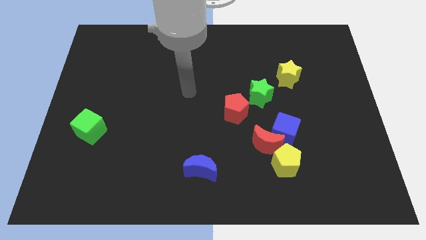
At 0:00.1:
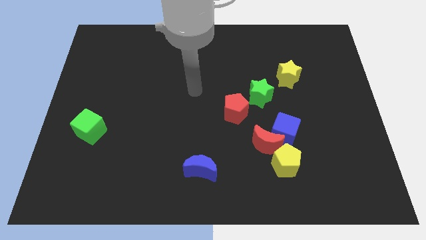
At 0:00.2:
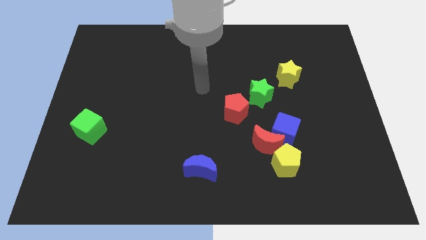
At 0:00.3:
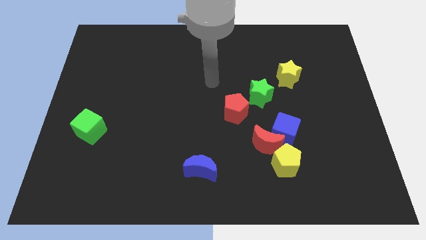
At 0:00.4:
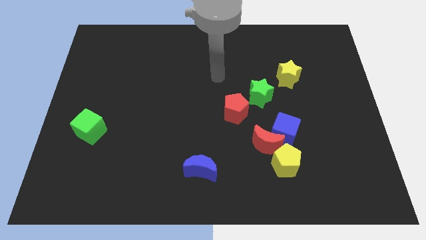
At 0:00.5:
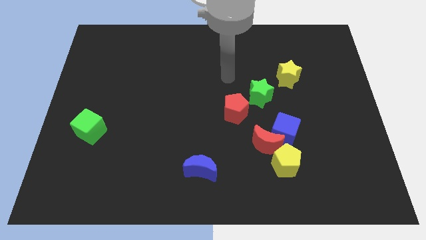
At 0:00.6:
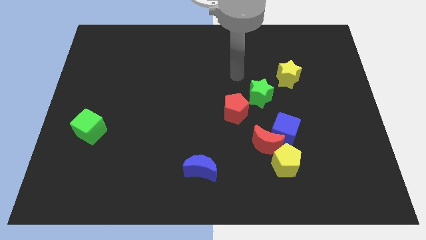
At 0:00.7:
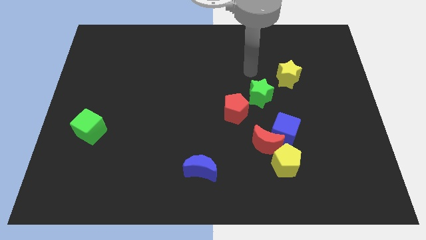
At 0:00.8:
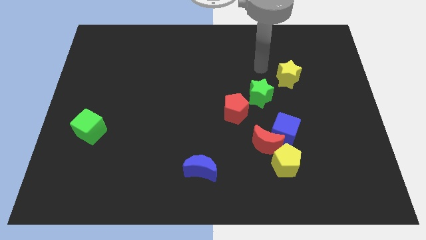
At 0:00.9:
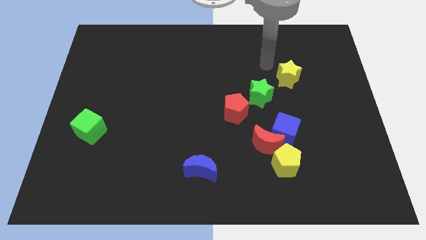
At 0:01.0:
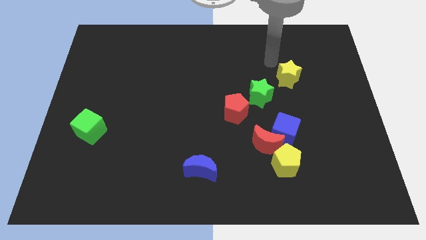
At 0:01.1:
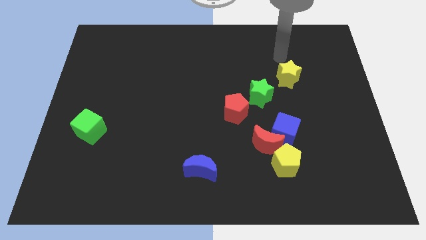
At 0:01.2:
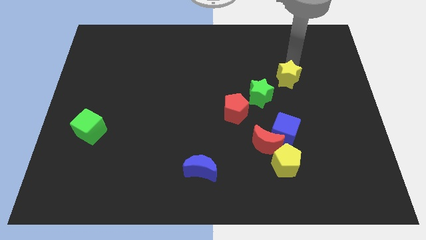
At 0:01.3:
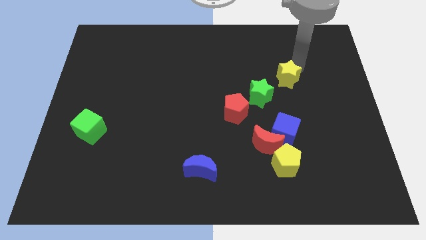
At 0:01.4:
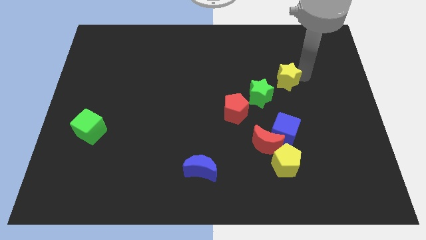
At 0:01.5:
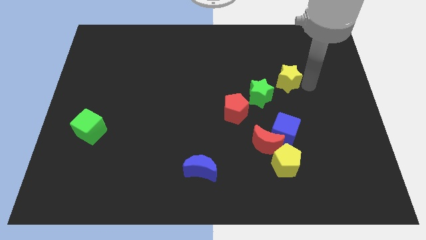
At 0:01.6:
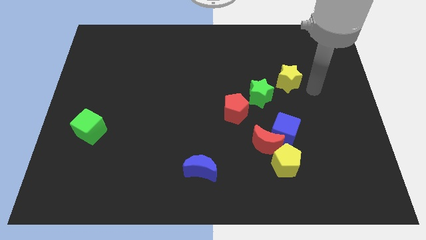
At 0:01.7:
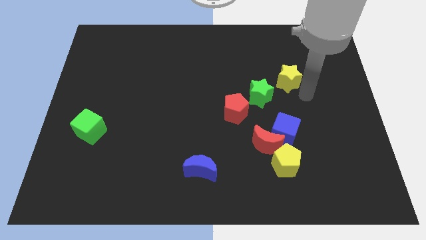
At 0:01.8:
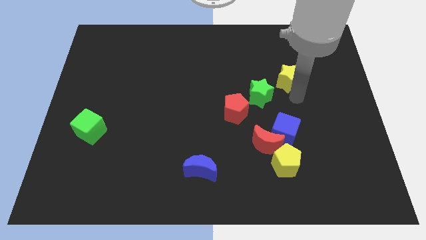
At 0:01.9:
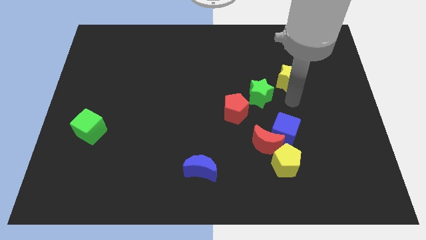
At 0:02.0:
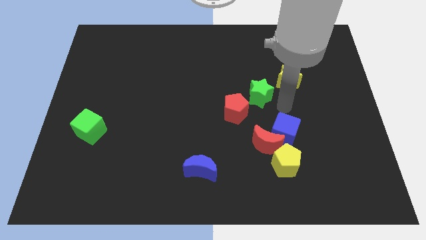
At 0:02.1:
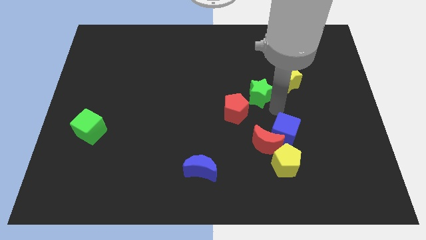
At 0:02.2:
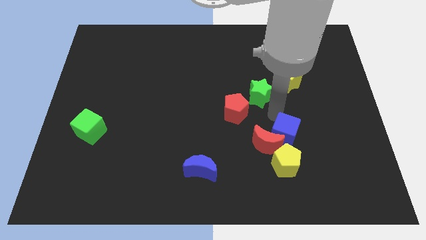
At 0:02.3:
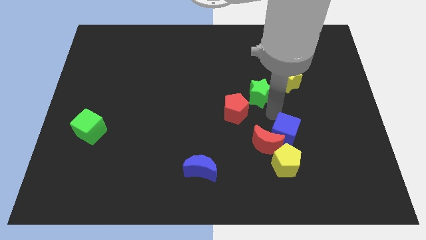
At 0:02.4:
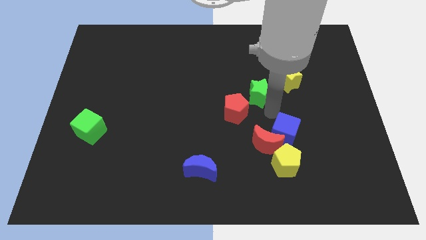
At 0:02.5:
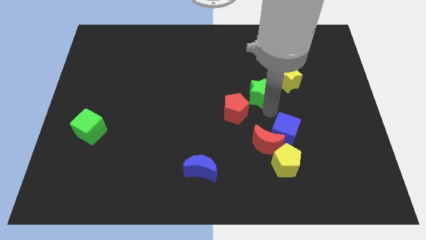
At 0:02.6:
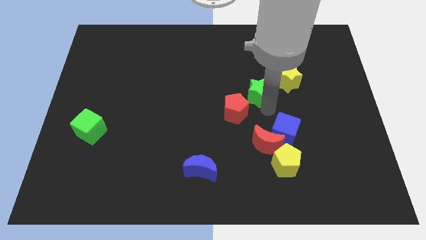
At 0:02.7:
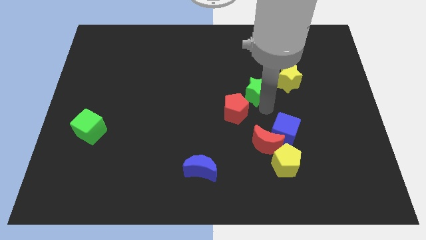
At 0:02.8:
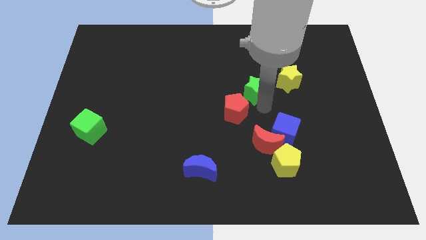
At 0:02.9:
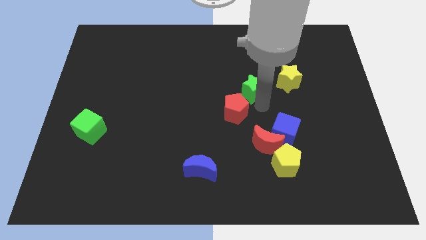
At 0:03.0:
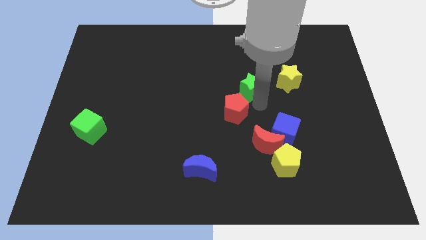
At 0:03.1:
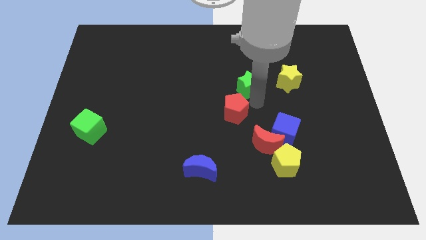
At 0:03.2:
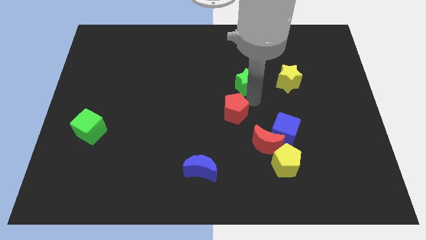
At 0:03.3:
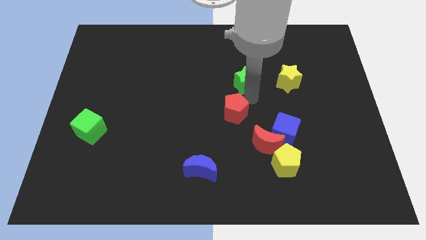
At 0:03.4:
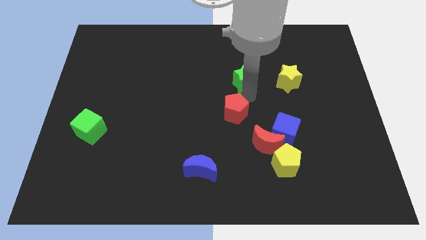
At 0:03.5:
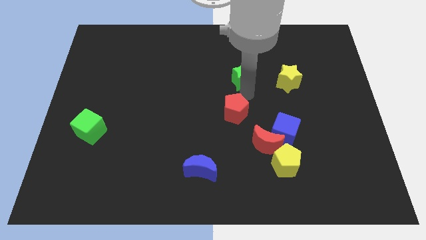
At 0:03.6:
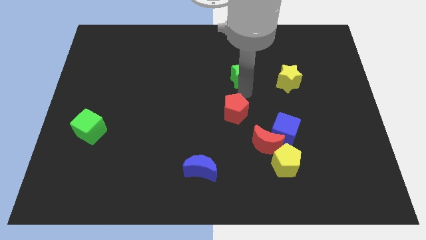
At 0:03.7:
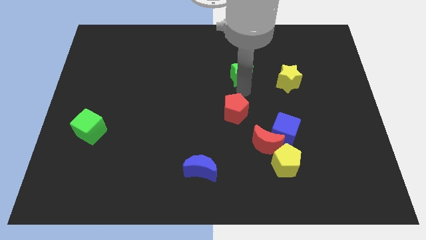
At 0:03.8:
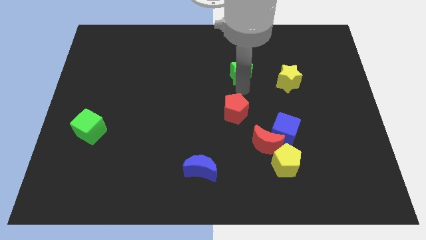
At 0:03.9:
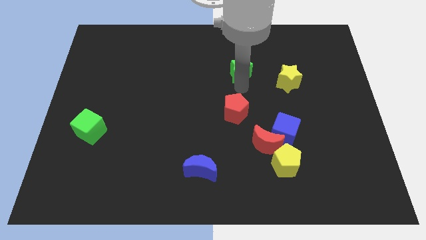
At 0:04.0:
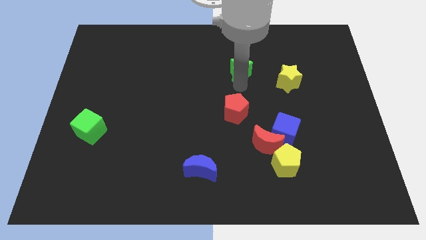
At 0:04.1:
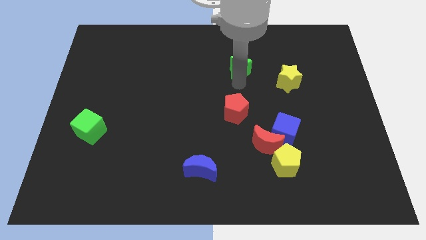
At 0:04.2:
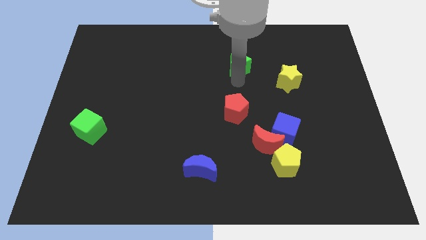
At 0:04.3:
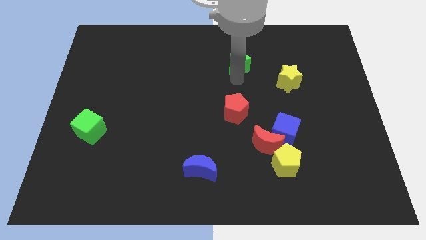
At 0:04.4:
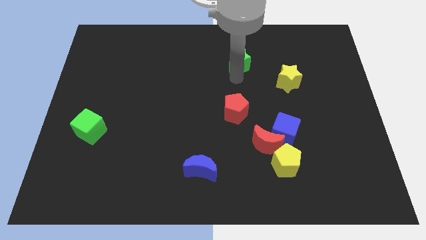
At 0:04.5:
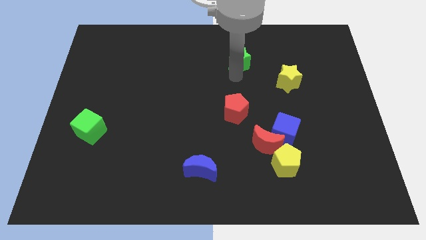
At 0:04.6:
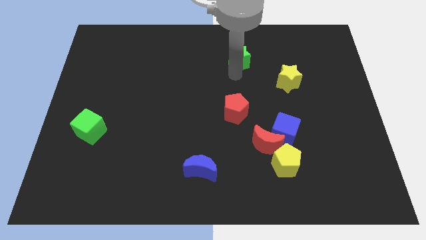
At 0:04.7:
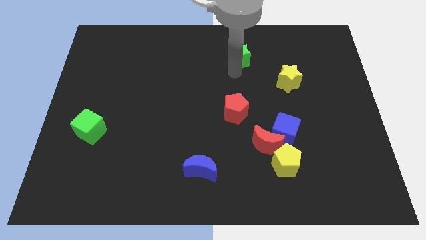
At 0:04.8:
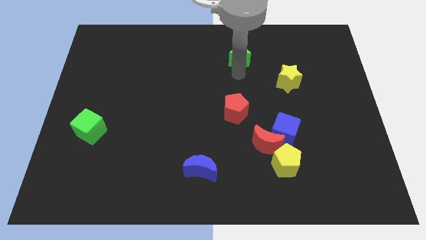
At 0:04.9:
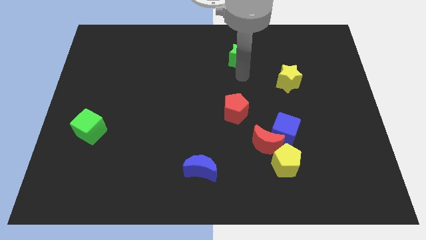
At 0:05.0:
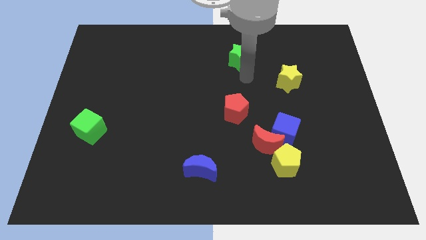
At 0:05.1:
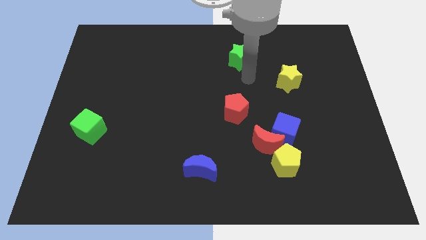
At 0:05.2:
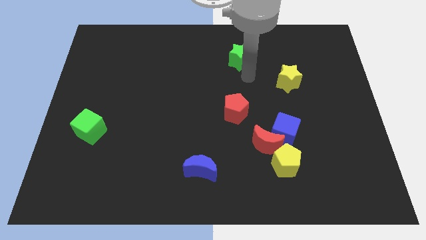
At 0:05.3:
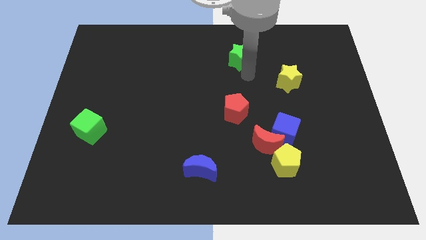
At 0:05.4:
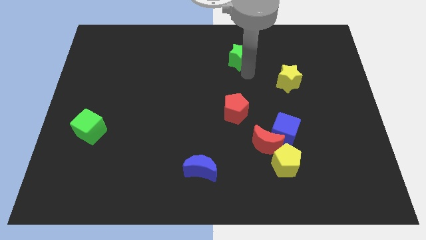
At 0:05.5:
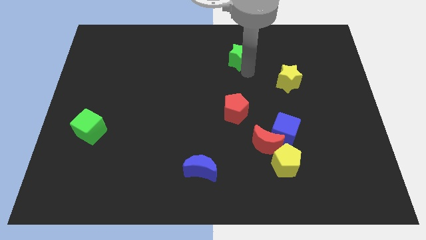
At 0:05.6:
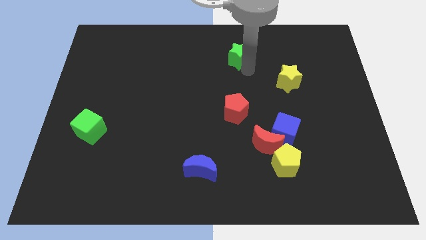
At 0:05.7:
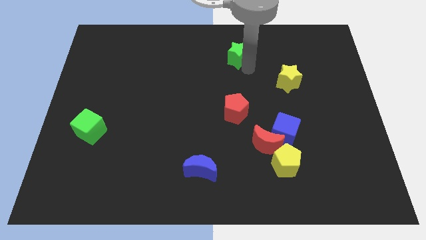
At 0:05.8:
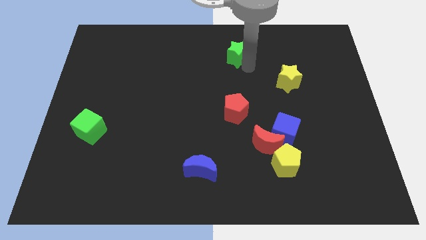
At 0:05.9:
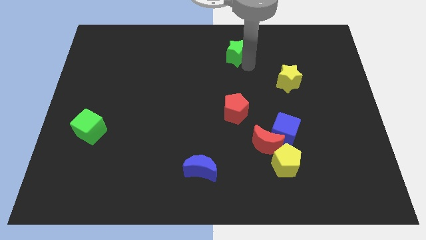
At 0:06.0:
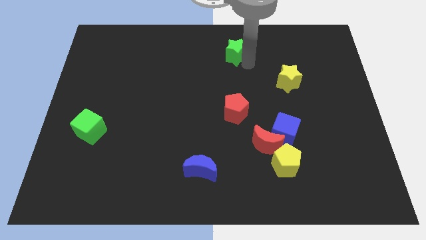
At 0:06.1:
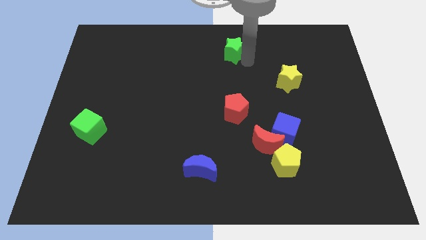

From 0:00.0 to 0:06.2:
put the green star to the towards your base
